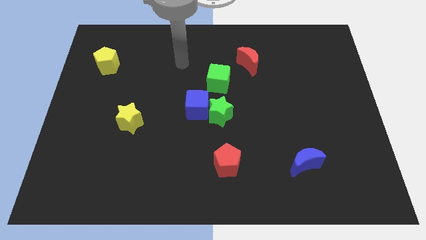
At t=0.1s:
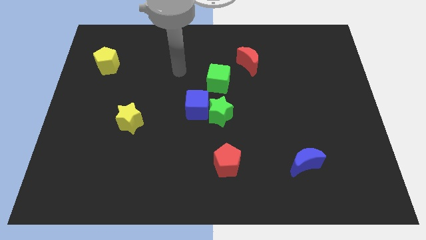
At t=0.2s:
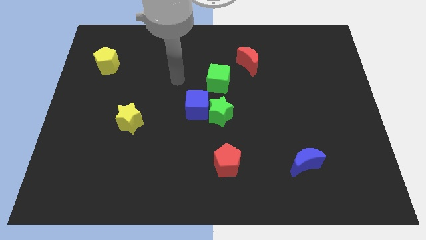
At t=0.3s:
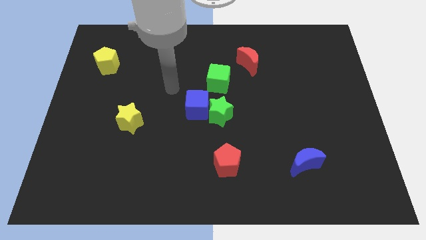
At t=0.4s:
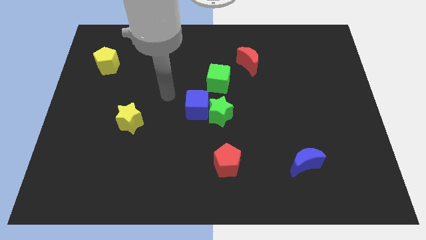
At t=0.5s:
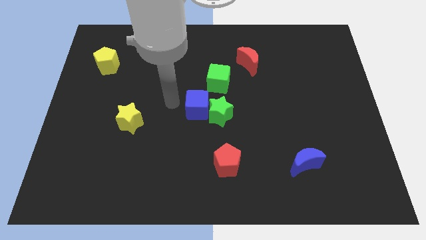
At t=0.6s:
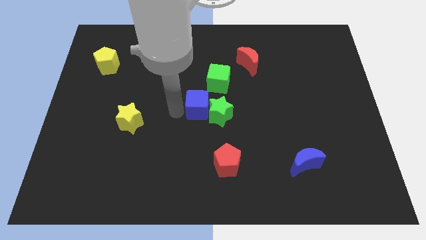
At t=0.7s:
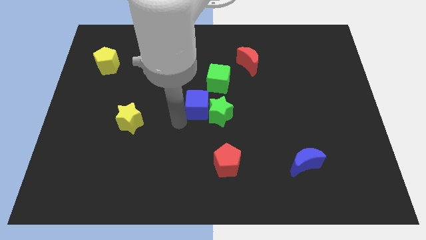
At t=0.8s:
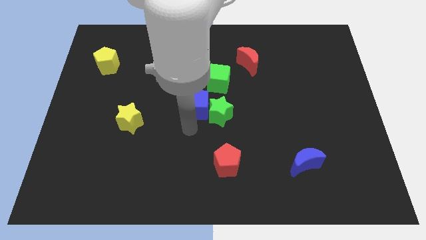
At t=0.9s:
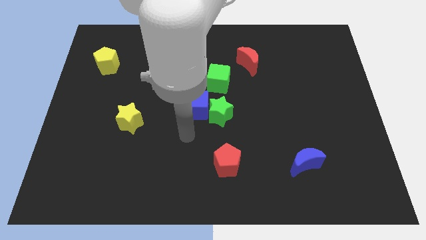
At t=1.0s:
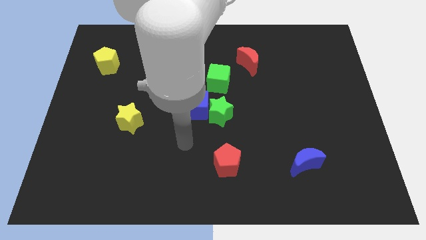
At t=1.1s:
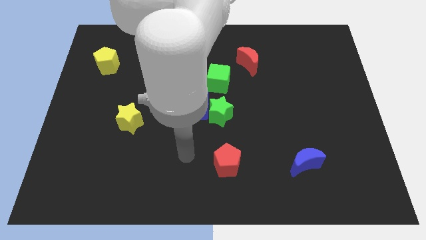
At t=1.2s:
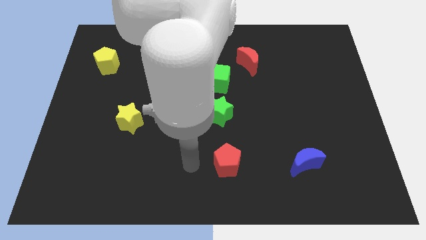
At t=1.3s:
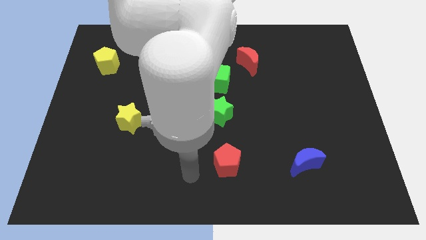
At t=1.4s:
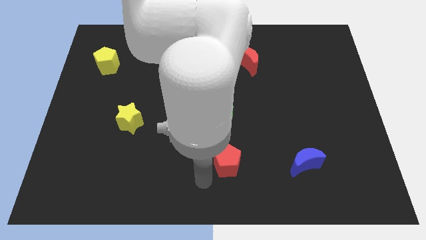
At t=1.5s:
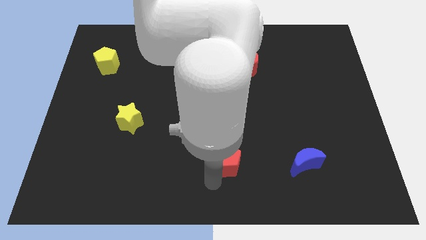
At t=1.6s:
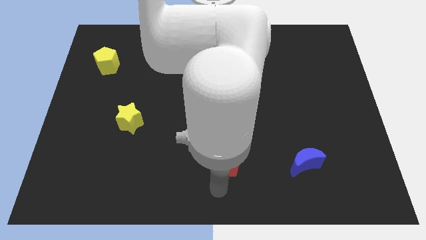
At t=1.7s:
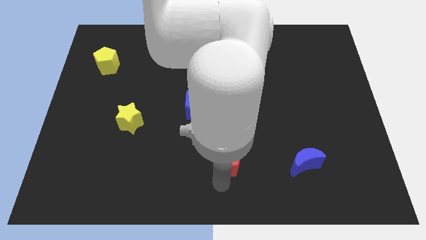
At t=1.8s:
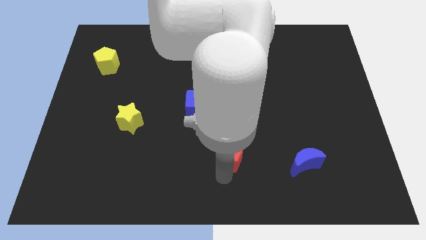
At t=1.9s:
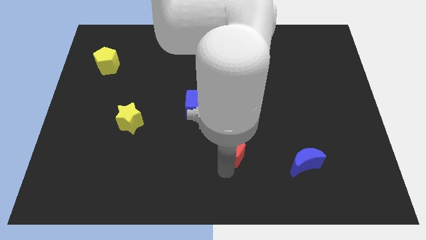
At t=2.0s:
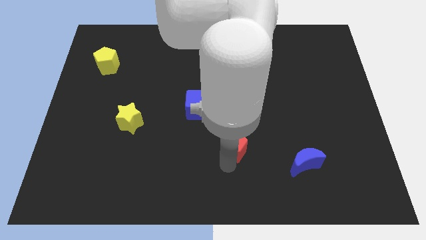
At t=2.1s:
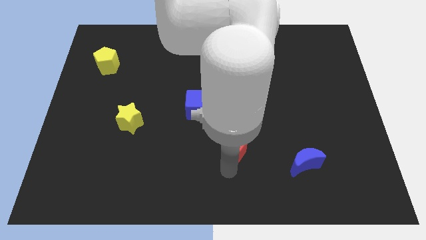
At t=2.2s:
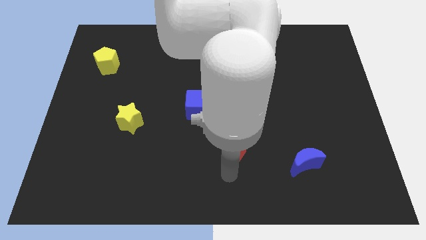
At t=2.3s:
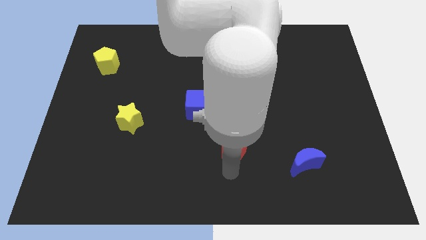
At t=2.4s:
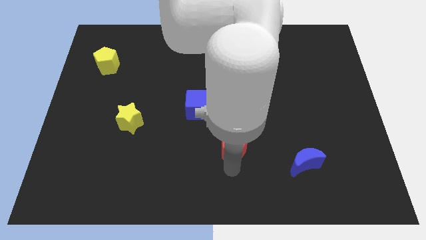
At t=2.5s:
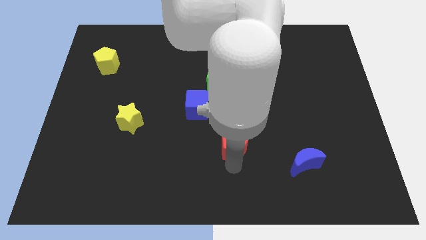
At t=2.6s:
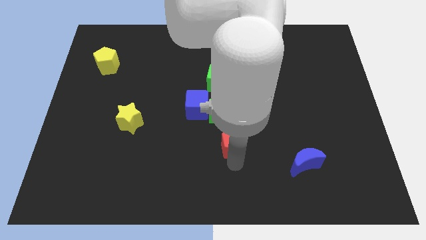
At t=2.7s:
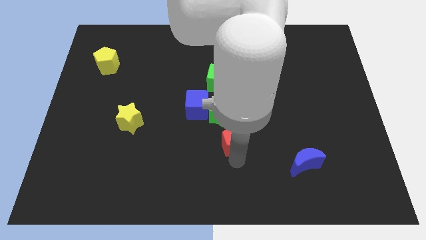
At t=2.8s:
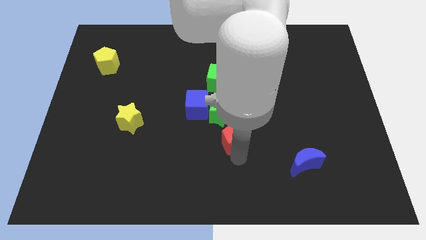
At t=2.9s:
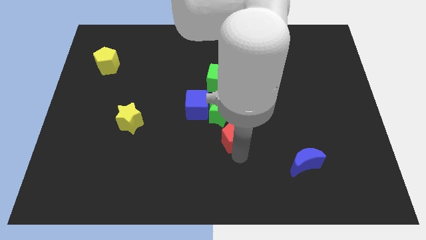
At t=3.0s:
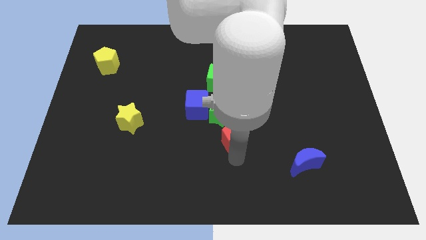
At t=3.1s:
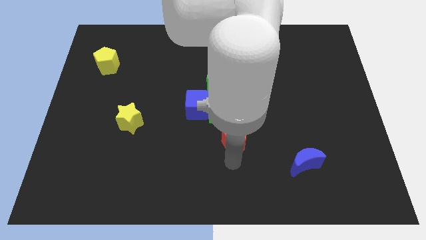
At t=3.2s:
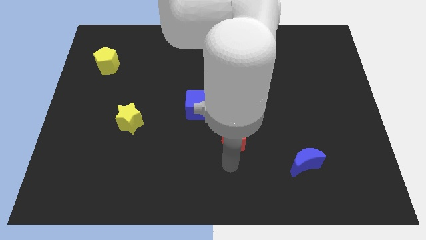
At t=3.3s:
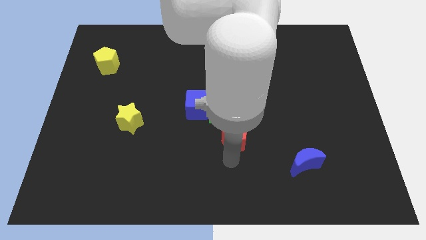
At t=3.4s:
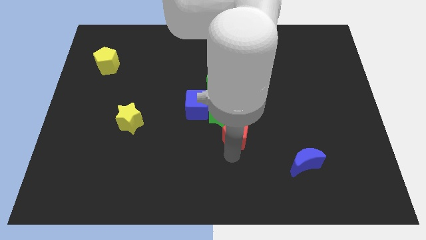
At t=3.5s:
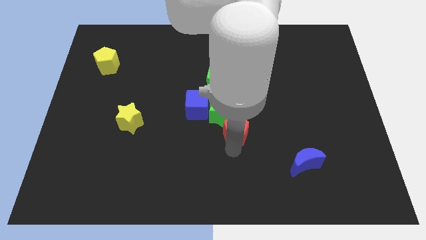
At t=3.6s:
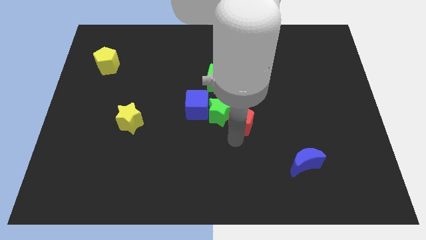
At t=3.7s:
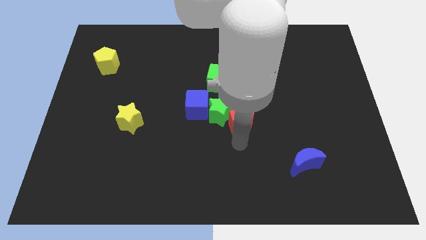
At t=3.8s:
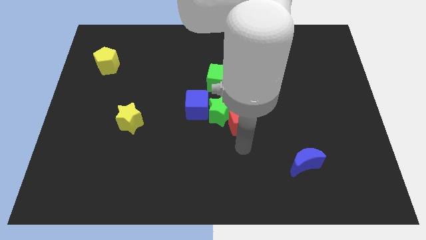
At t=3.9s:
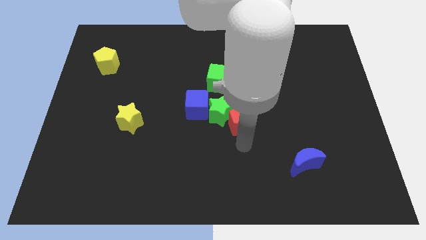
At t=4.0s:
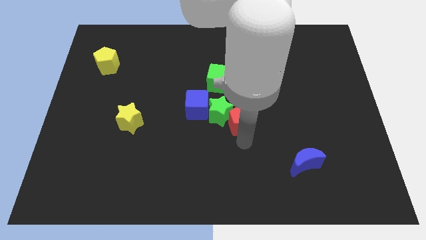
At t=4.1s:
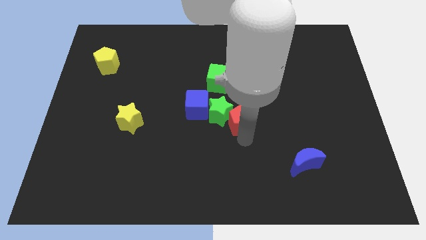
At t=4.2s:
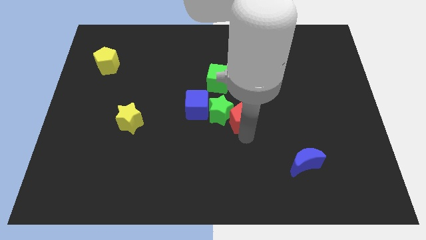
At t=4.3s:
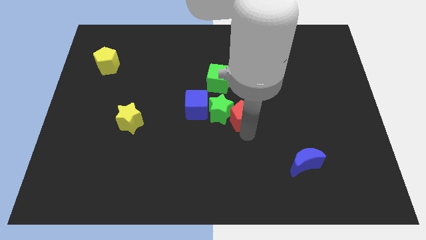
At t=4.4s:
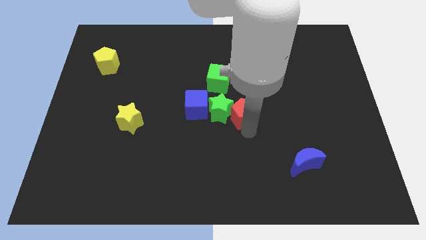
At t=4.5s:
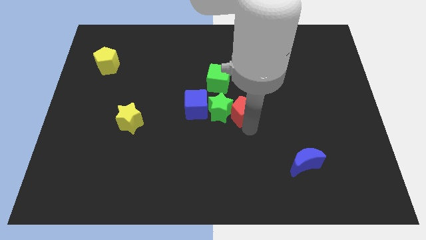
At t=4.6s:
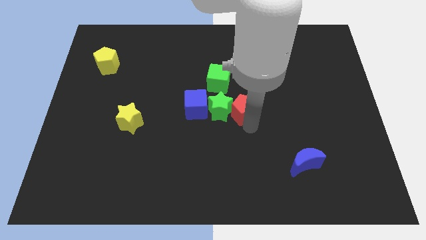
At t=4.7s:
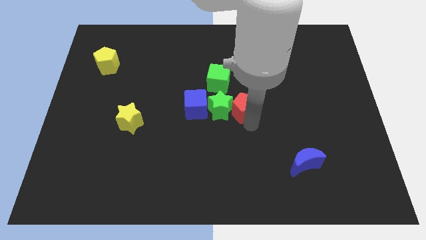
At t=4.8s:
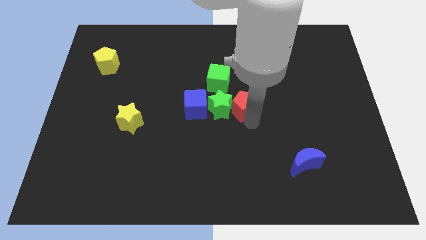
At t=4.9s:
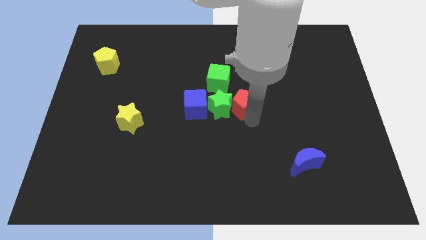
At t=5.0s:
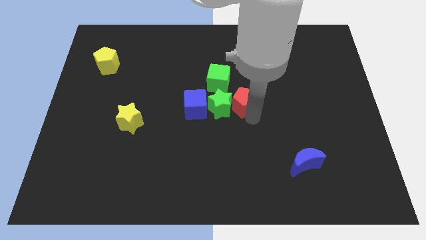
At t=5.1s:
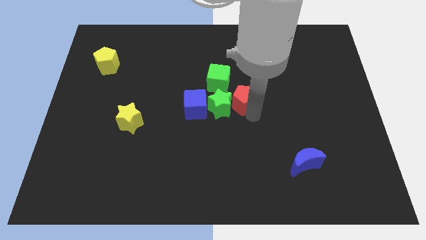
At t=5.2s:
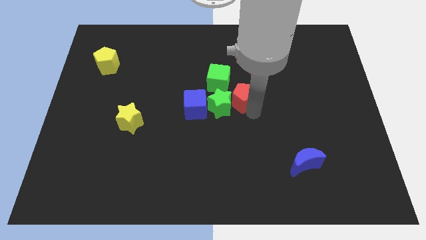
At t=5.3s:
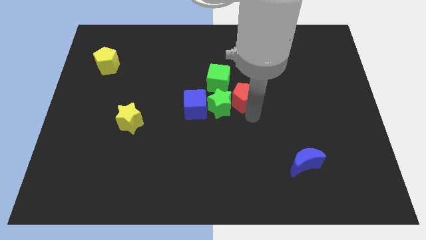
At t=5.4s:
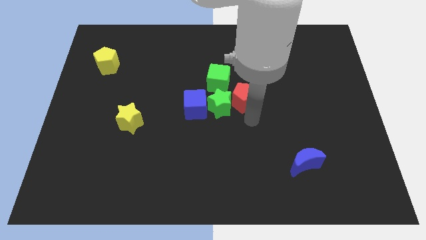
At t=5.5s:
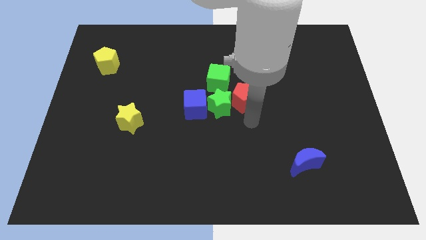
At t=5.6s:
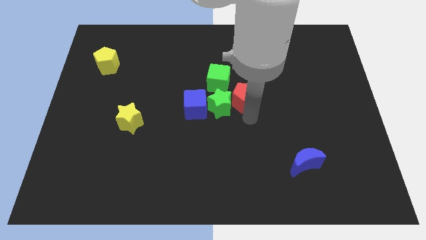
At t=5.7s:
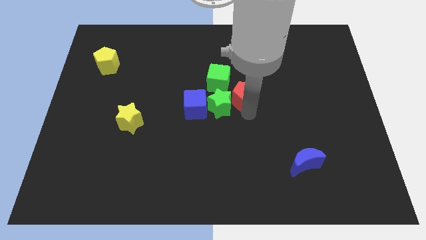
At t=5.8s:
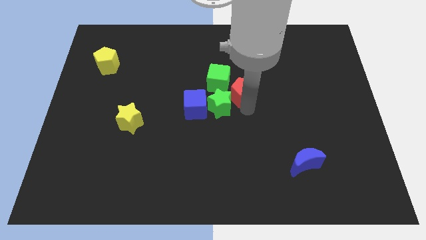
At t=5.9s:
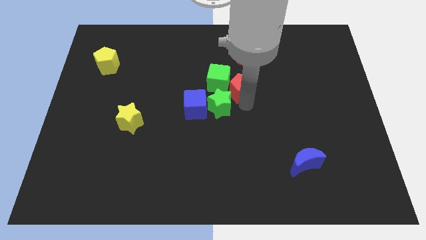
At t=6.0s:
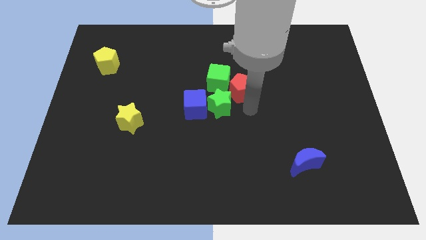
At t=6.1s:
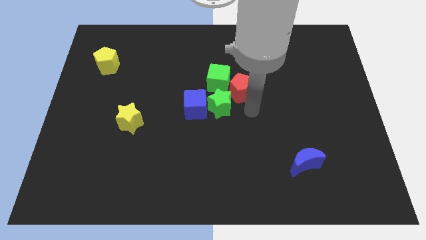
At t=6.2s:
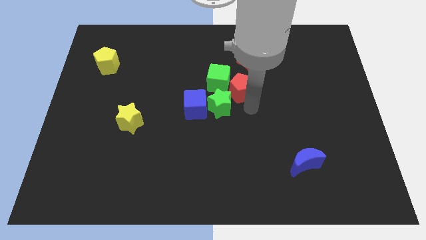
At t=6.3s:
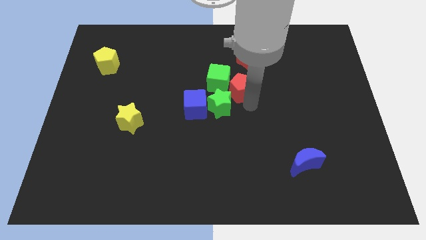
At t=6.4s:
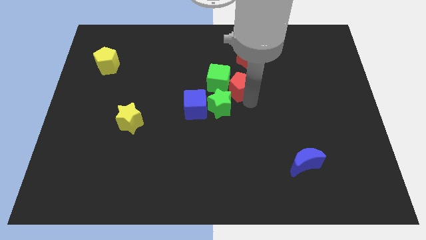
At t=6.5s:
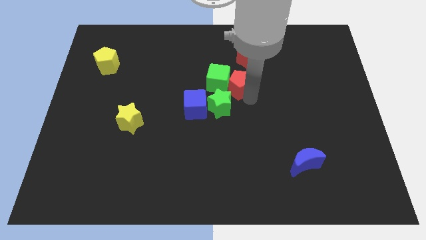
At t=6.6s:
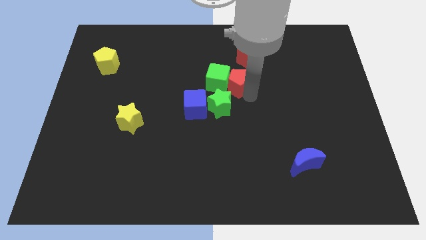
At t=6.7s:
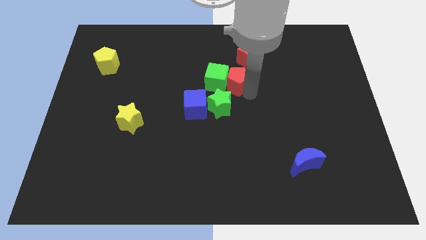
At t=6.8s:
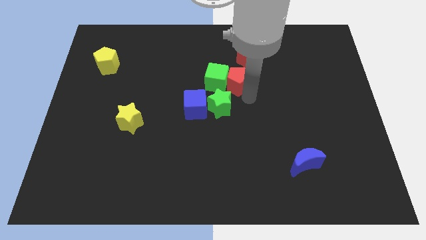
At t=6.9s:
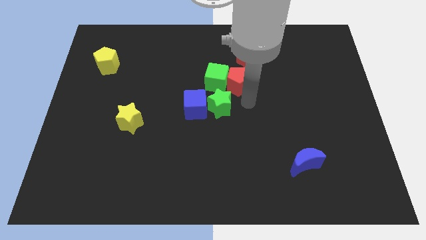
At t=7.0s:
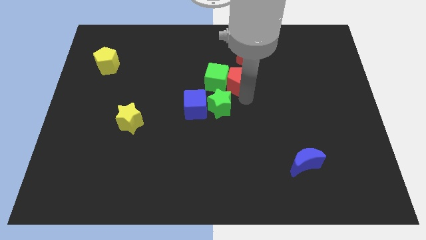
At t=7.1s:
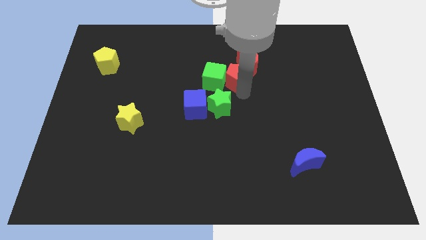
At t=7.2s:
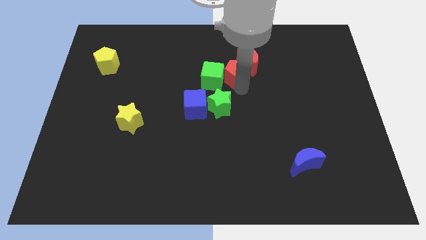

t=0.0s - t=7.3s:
slide the red pentagon to the left side of the red moon
